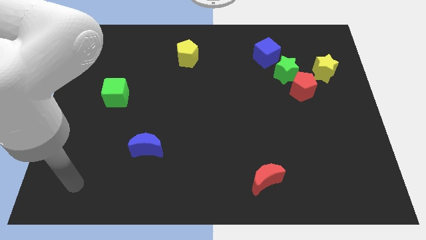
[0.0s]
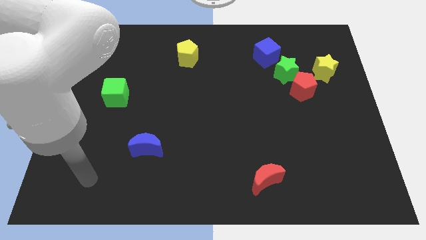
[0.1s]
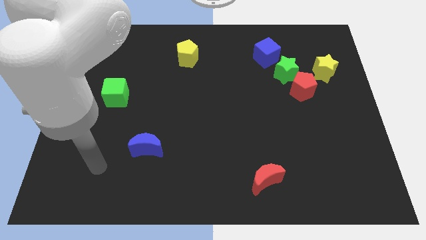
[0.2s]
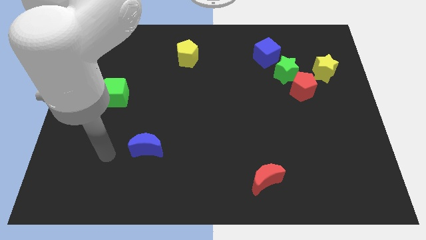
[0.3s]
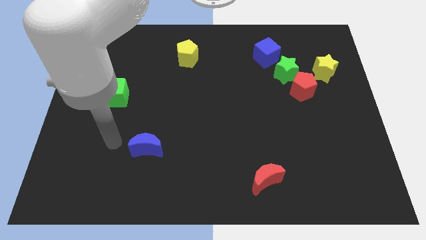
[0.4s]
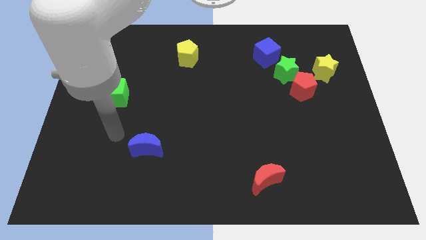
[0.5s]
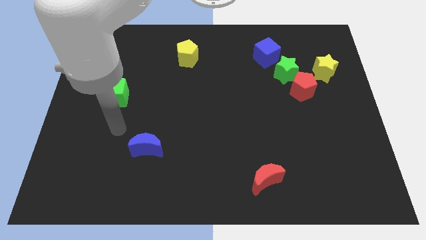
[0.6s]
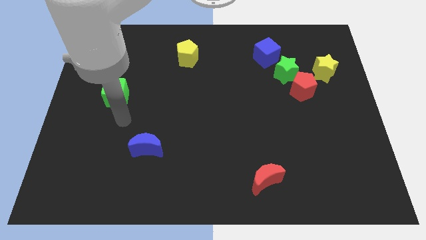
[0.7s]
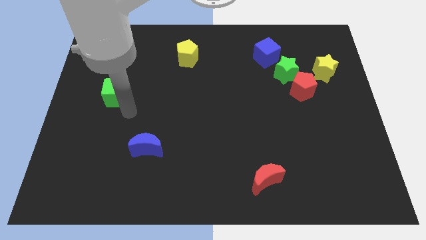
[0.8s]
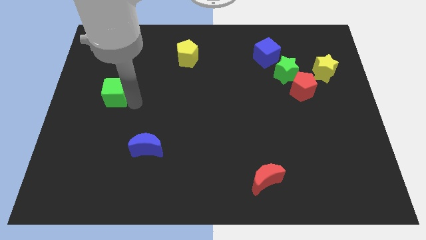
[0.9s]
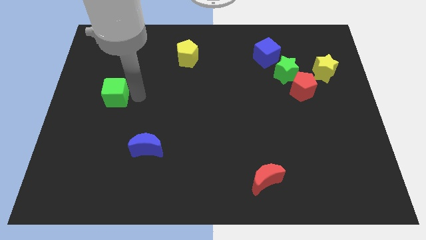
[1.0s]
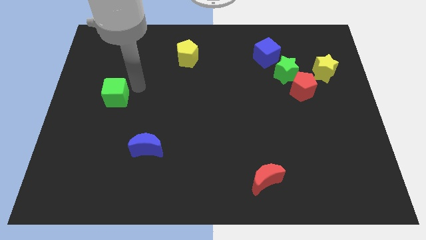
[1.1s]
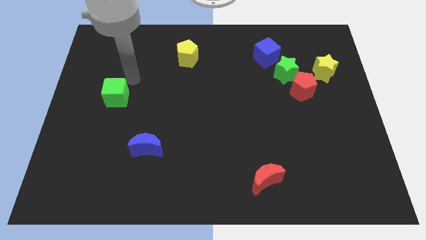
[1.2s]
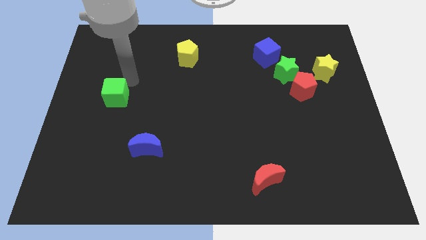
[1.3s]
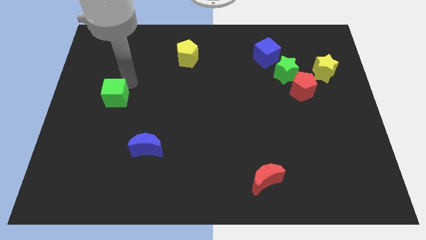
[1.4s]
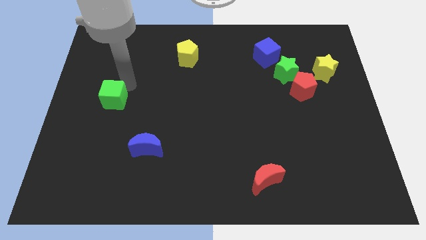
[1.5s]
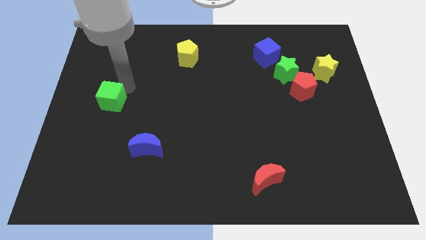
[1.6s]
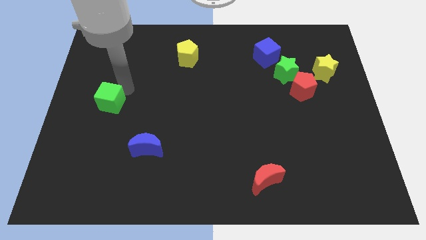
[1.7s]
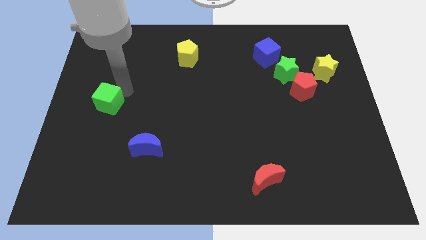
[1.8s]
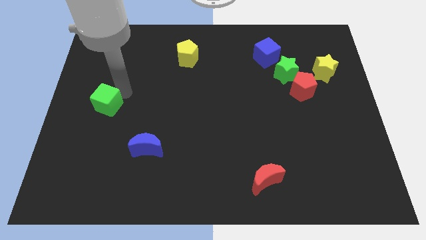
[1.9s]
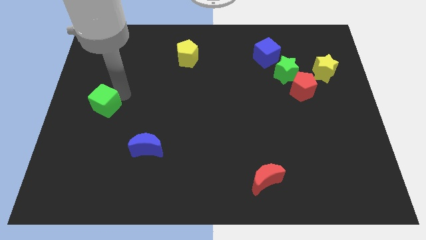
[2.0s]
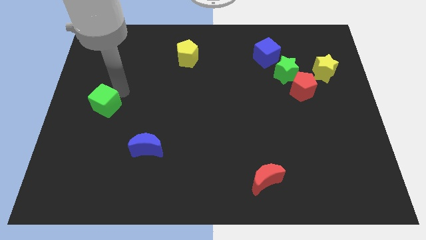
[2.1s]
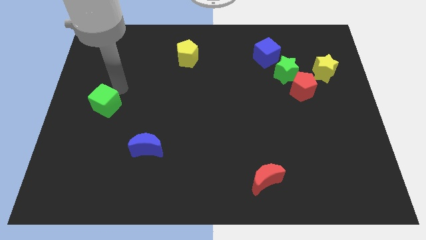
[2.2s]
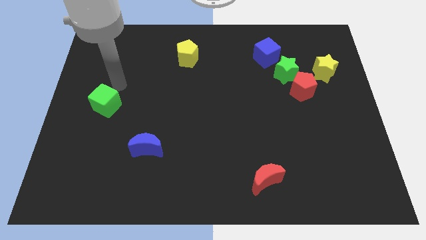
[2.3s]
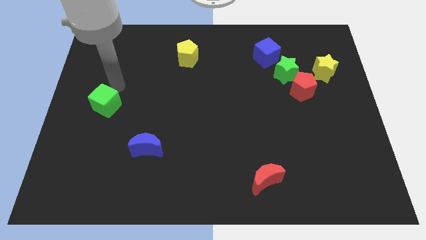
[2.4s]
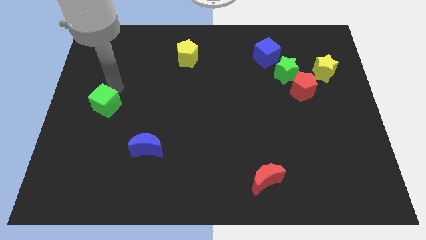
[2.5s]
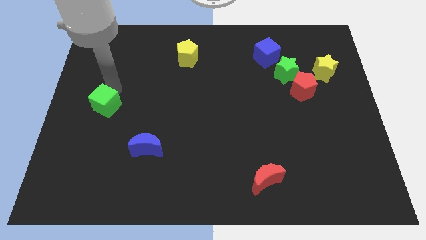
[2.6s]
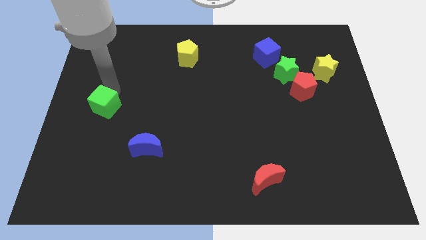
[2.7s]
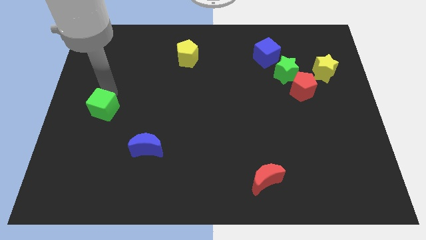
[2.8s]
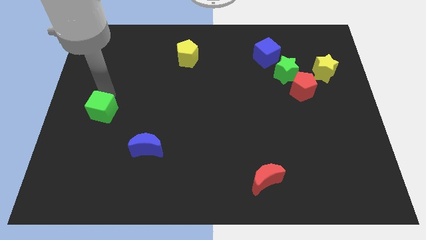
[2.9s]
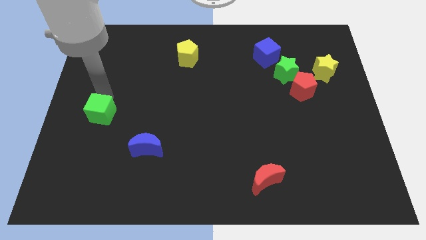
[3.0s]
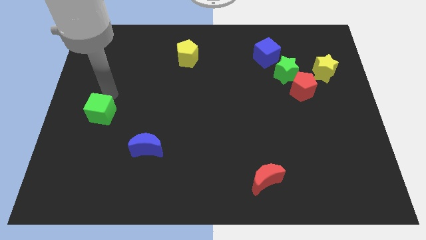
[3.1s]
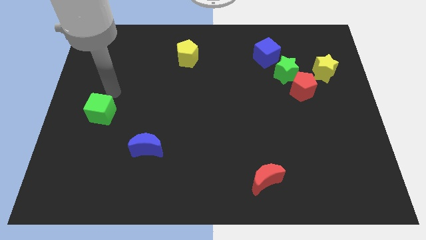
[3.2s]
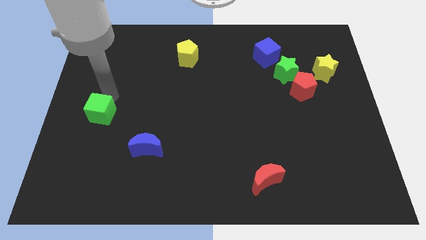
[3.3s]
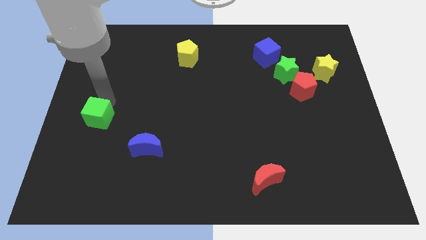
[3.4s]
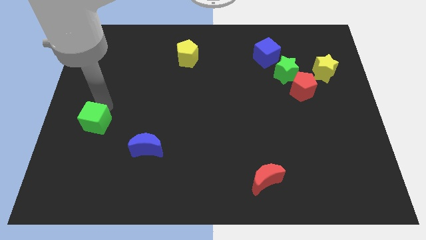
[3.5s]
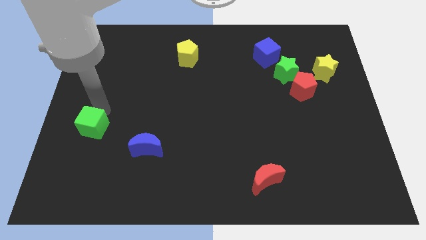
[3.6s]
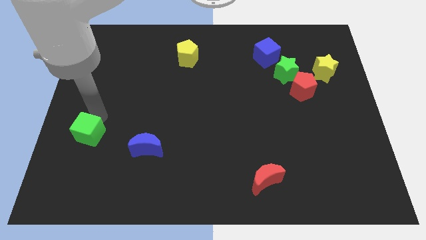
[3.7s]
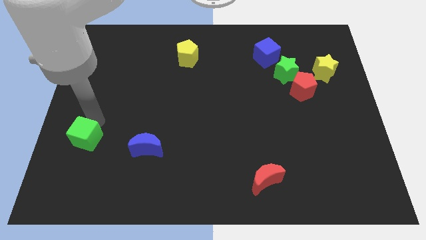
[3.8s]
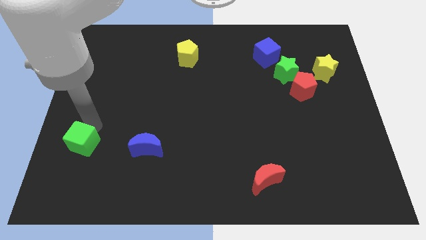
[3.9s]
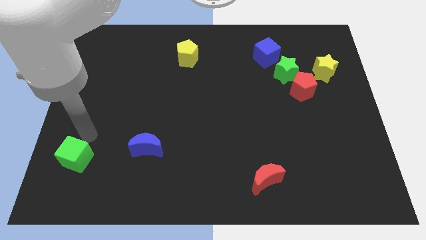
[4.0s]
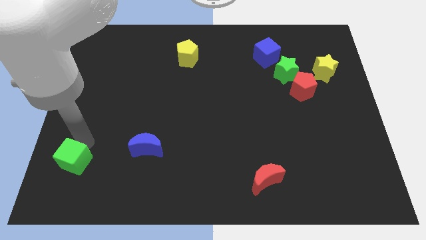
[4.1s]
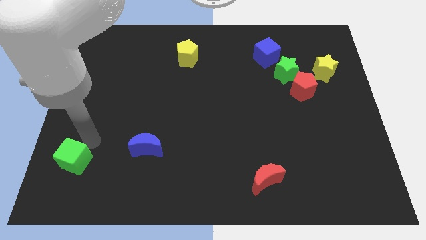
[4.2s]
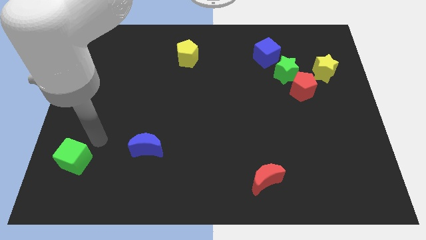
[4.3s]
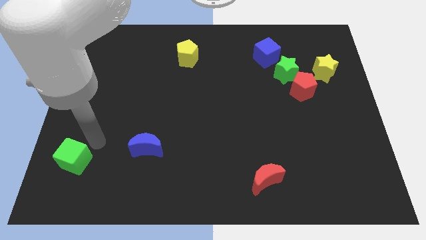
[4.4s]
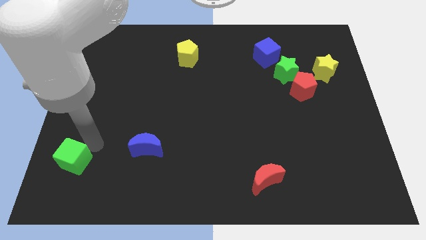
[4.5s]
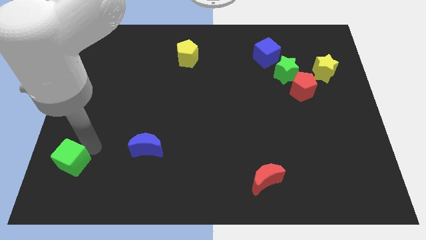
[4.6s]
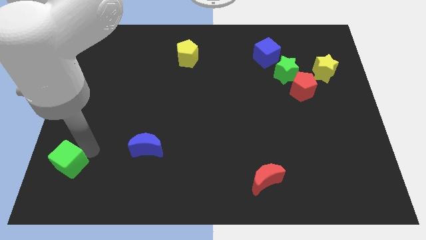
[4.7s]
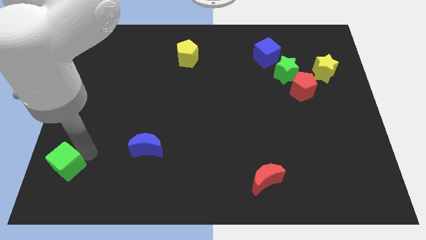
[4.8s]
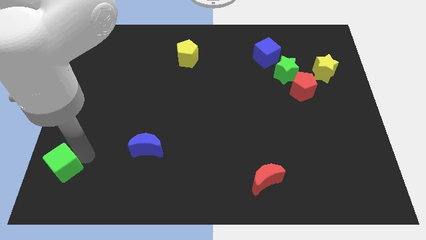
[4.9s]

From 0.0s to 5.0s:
move the green cube to the bottom left

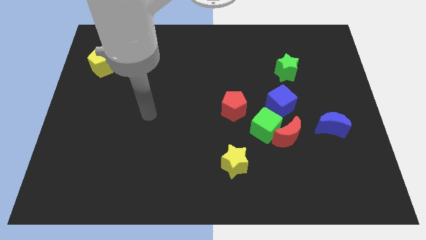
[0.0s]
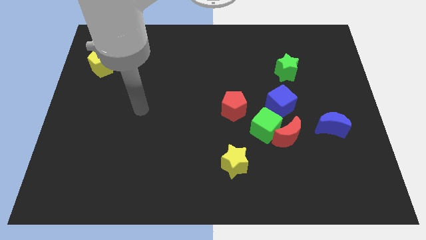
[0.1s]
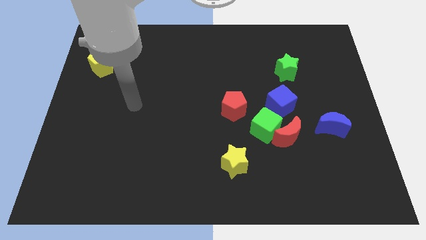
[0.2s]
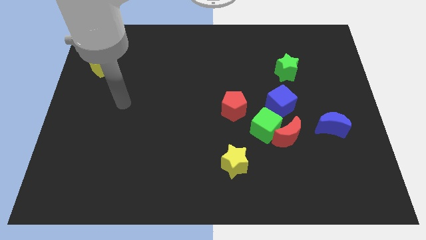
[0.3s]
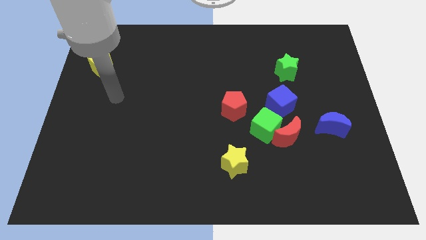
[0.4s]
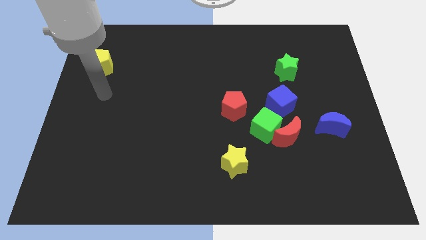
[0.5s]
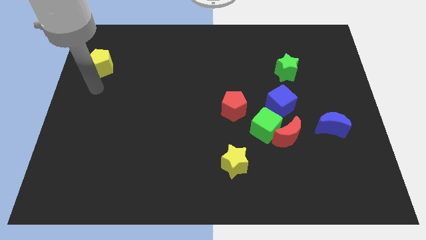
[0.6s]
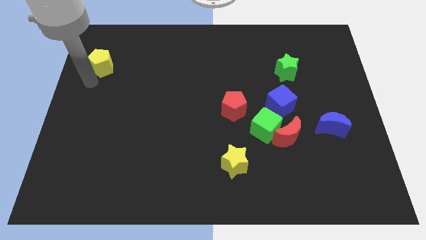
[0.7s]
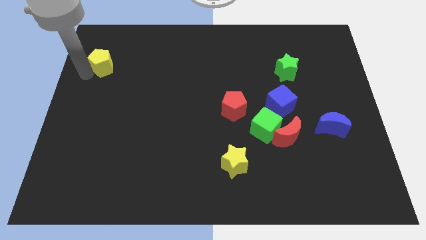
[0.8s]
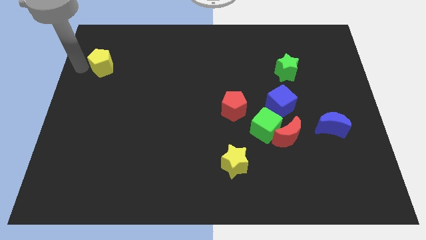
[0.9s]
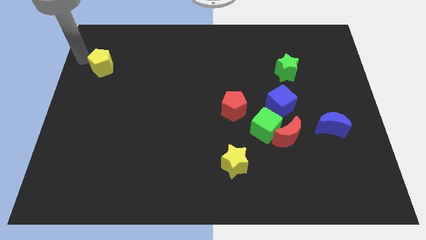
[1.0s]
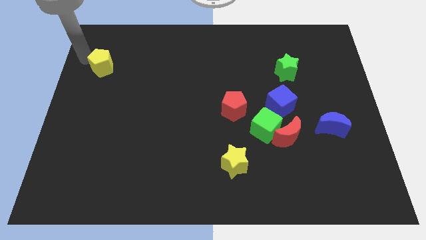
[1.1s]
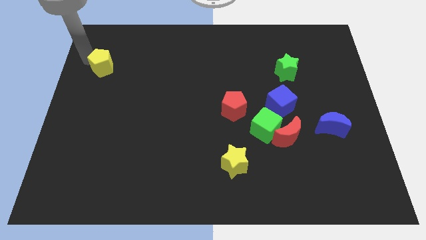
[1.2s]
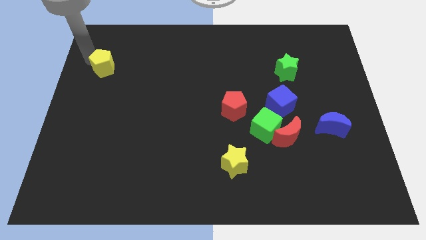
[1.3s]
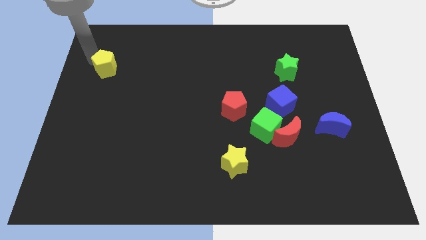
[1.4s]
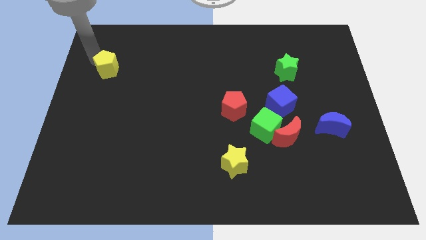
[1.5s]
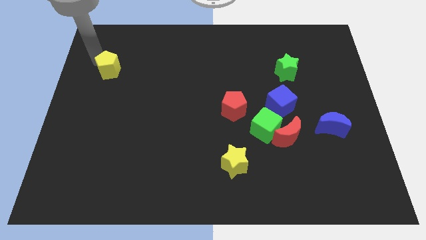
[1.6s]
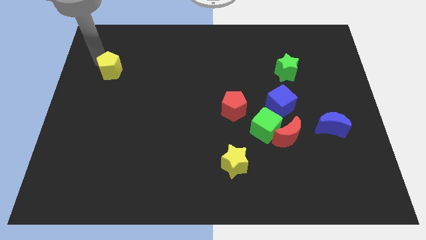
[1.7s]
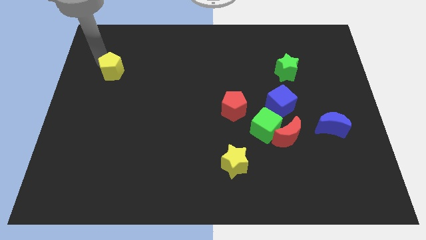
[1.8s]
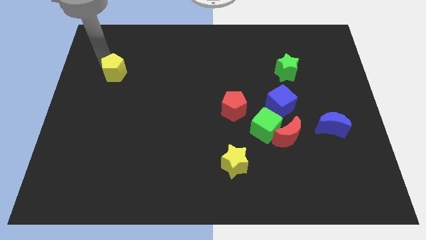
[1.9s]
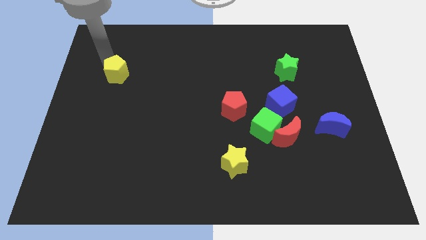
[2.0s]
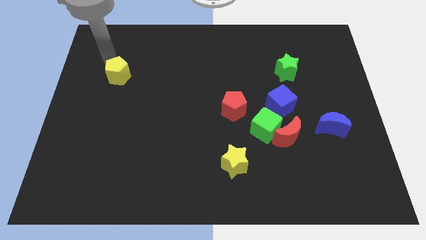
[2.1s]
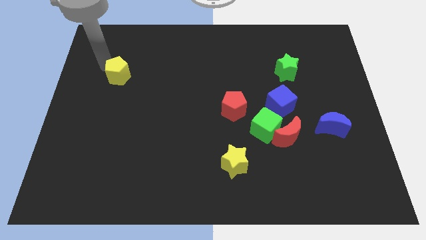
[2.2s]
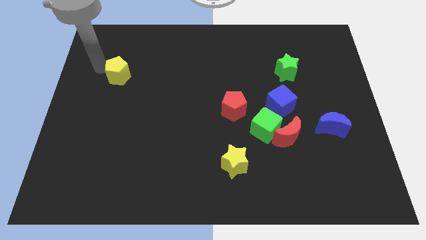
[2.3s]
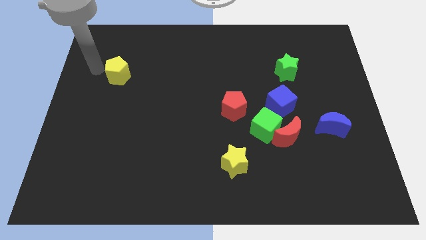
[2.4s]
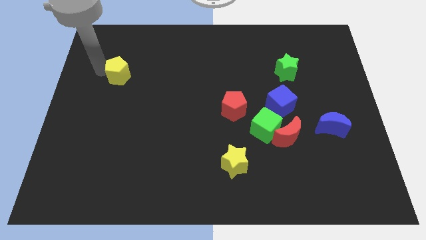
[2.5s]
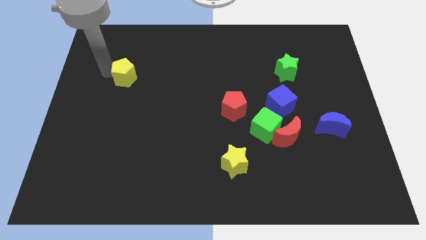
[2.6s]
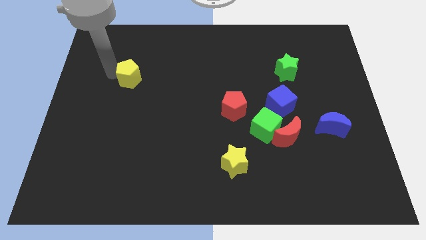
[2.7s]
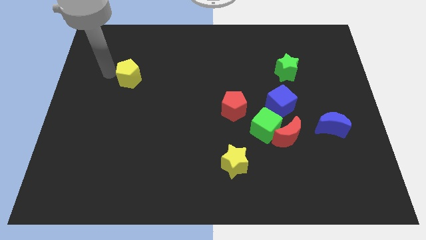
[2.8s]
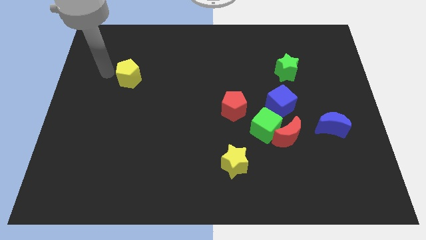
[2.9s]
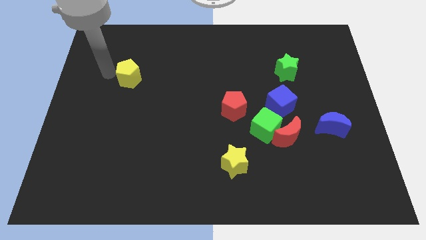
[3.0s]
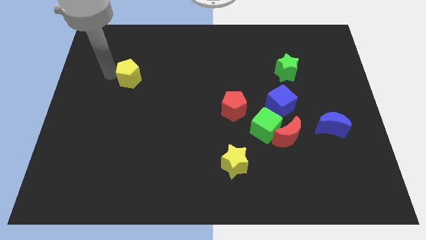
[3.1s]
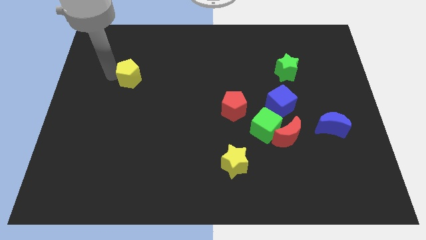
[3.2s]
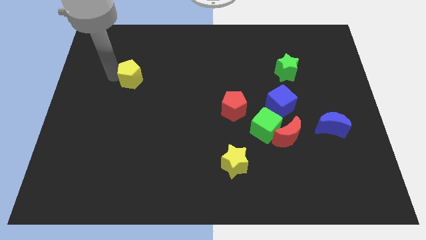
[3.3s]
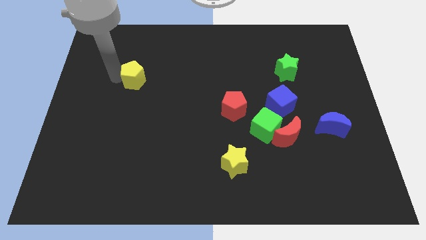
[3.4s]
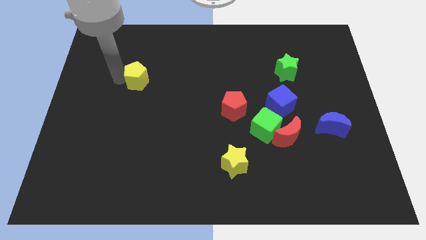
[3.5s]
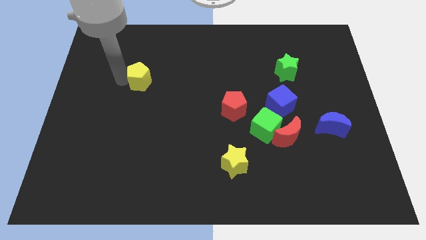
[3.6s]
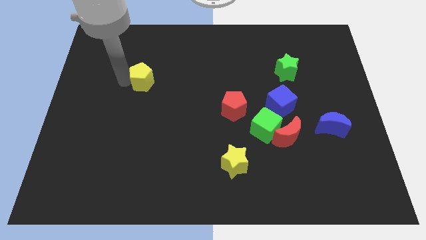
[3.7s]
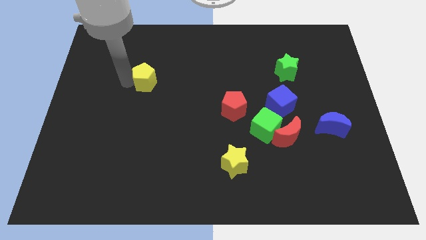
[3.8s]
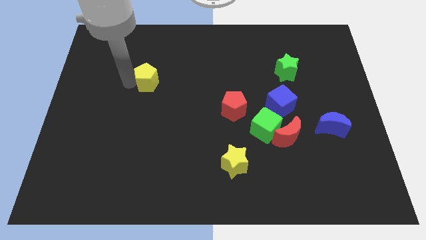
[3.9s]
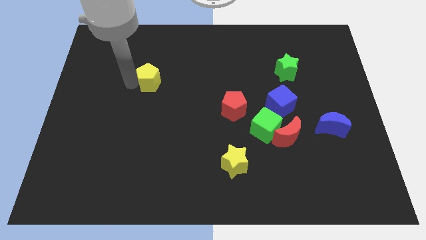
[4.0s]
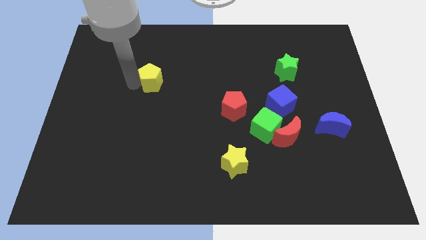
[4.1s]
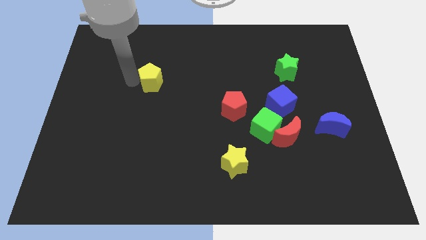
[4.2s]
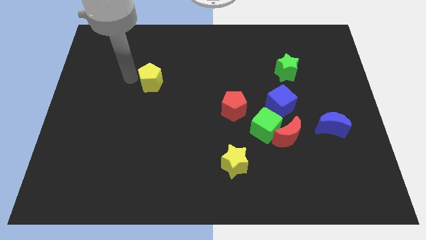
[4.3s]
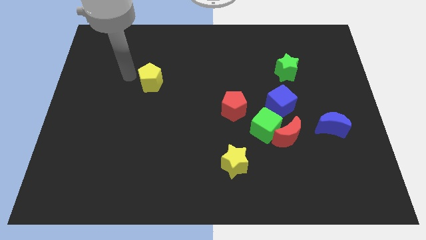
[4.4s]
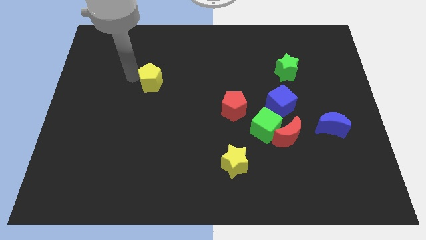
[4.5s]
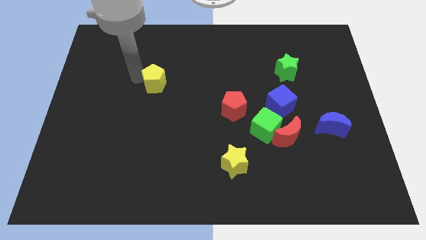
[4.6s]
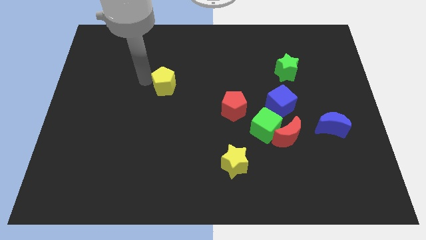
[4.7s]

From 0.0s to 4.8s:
move the yellow pentagon to the middle
